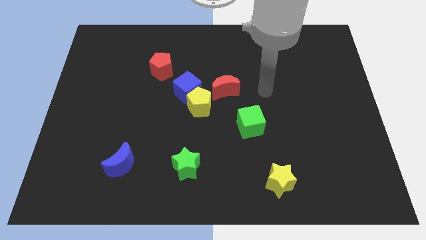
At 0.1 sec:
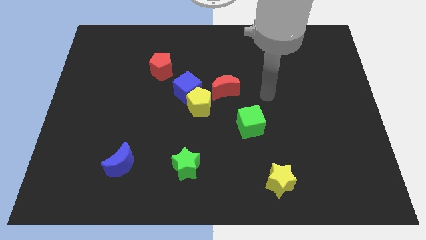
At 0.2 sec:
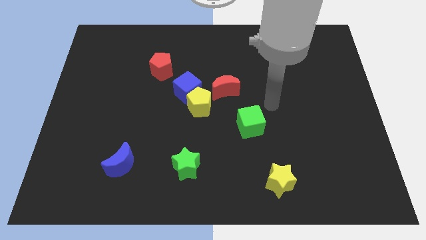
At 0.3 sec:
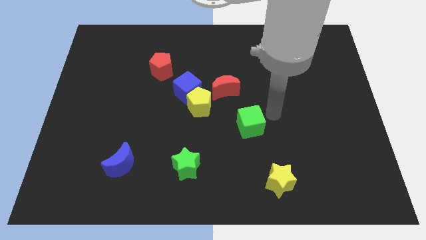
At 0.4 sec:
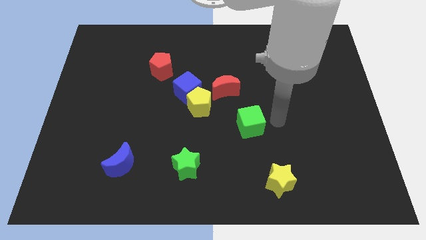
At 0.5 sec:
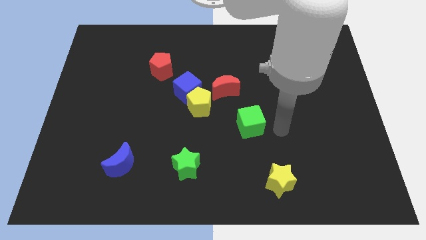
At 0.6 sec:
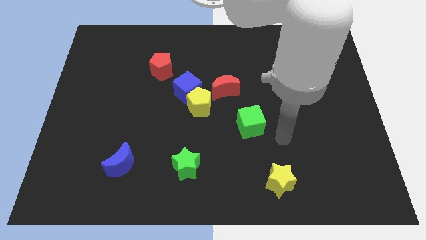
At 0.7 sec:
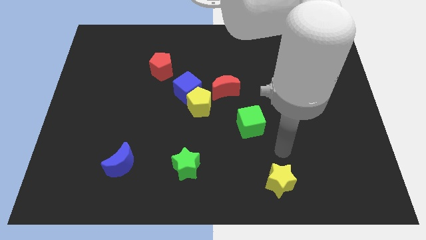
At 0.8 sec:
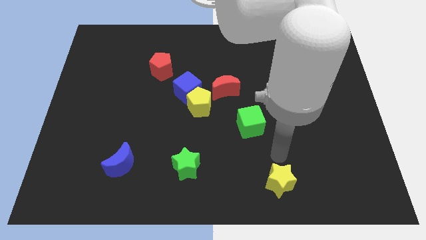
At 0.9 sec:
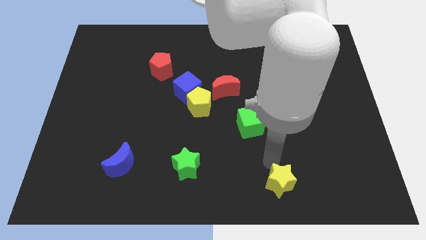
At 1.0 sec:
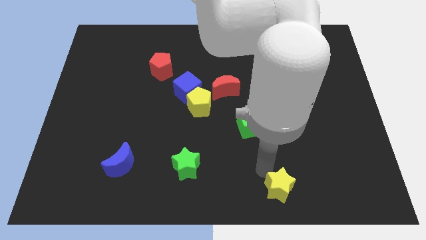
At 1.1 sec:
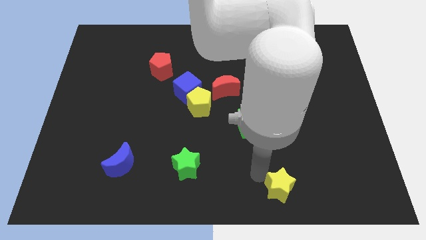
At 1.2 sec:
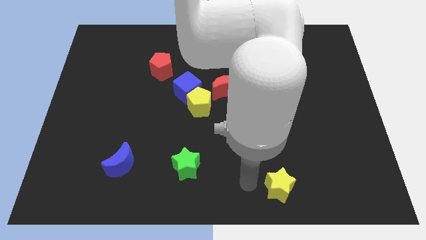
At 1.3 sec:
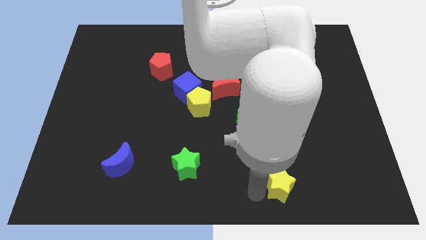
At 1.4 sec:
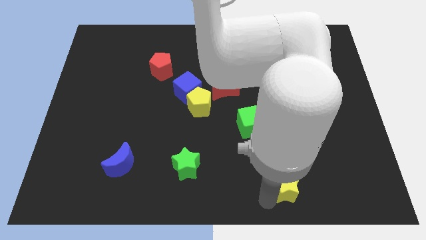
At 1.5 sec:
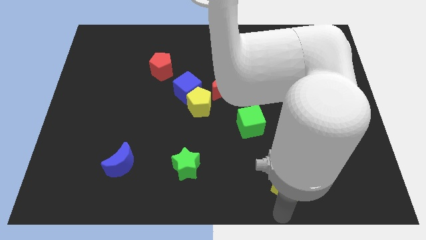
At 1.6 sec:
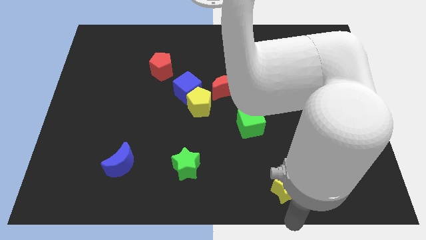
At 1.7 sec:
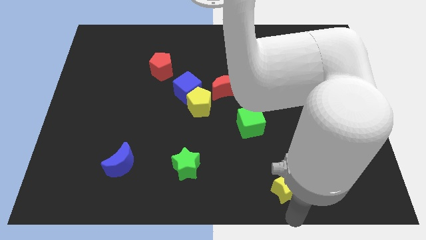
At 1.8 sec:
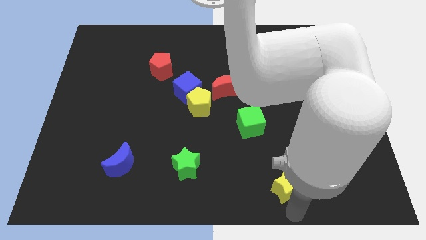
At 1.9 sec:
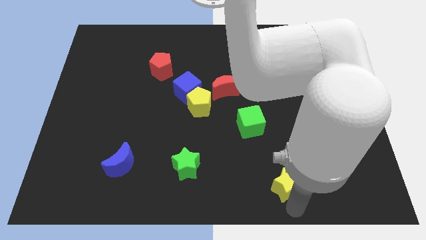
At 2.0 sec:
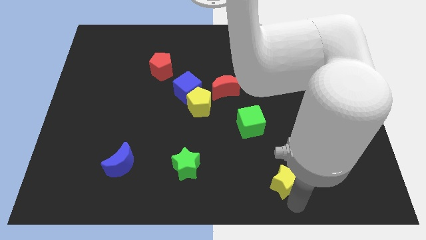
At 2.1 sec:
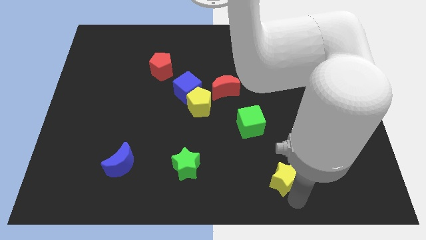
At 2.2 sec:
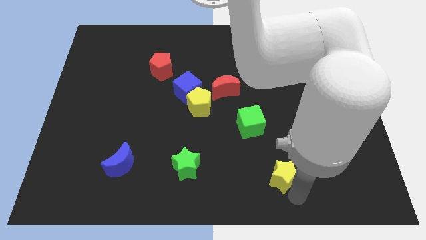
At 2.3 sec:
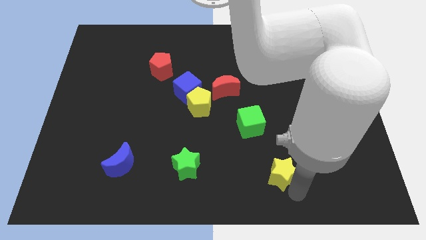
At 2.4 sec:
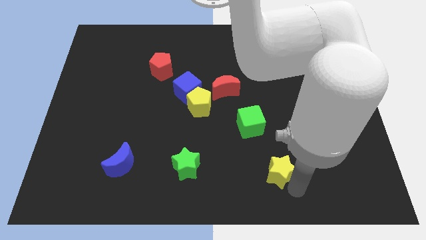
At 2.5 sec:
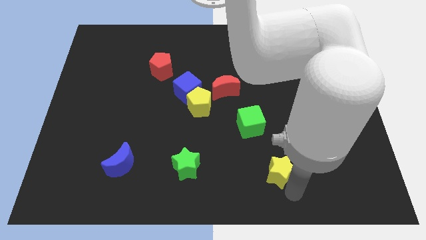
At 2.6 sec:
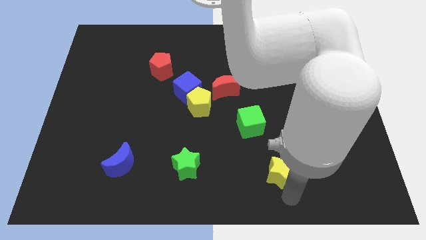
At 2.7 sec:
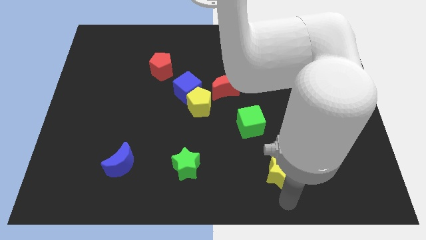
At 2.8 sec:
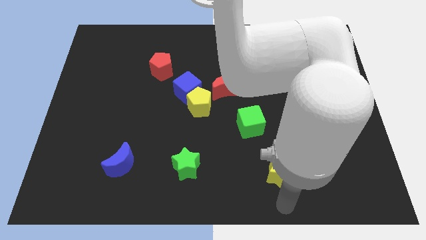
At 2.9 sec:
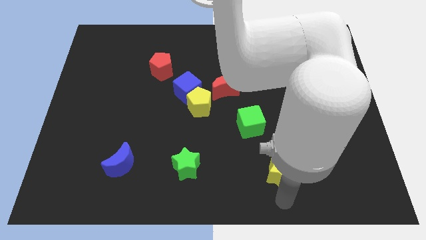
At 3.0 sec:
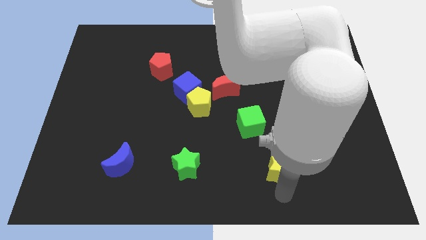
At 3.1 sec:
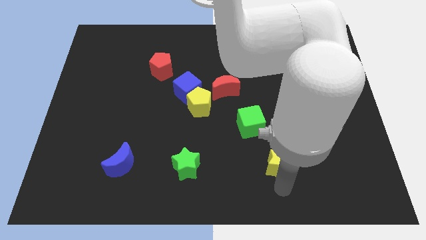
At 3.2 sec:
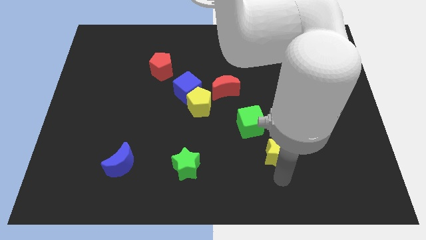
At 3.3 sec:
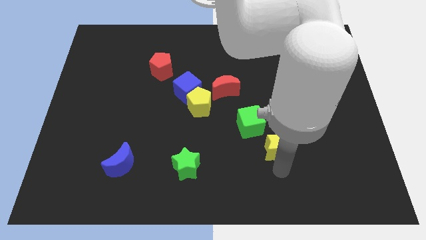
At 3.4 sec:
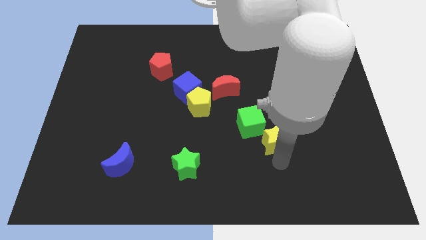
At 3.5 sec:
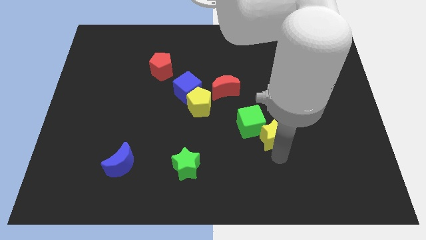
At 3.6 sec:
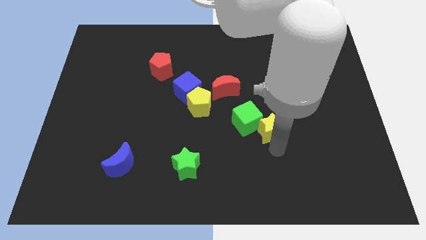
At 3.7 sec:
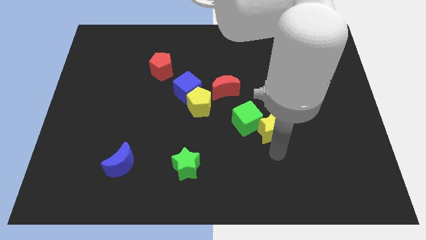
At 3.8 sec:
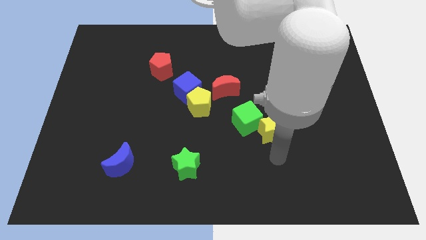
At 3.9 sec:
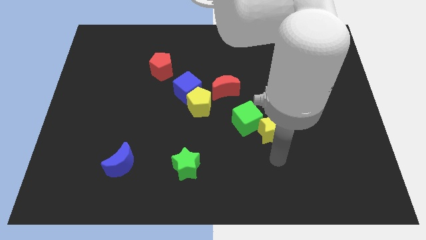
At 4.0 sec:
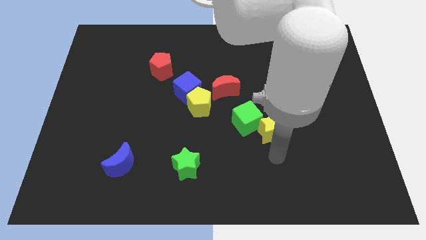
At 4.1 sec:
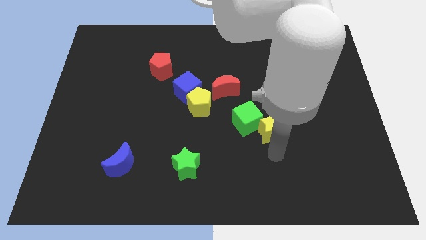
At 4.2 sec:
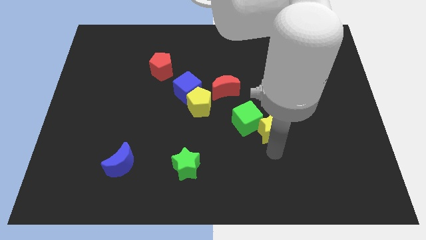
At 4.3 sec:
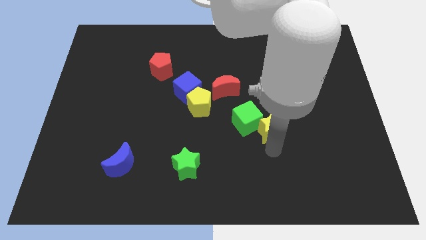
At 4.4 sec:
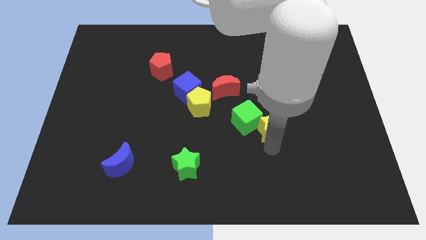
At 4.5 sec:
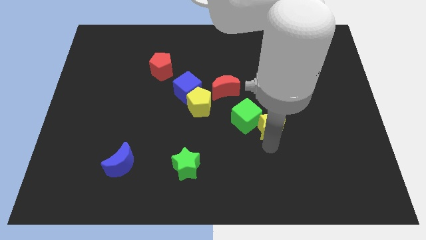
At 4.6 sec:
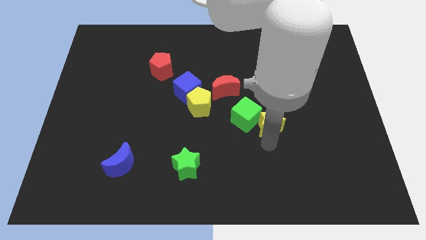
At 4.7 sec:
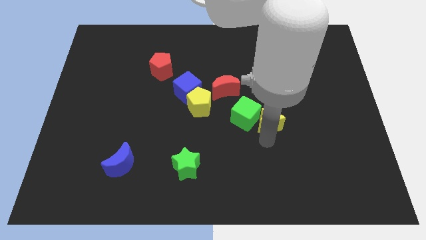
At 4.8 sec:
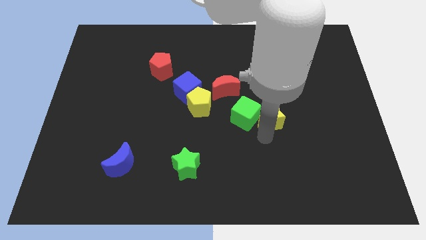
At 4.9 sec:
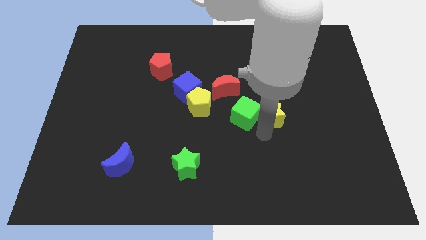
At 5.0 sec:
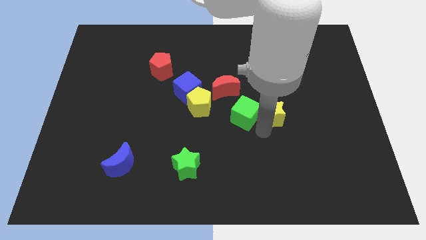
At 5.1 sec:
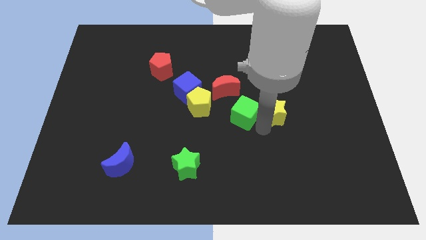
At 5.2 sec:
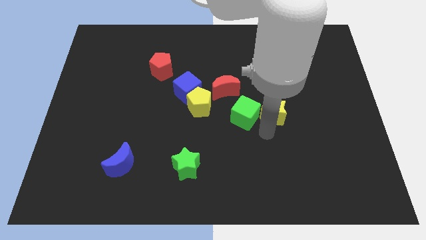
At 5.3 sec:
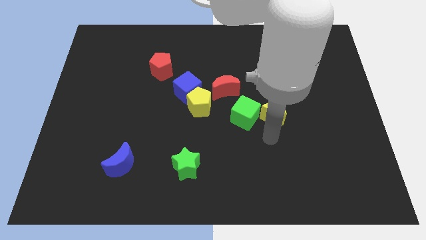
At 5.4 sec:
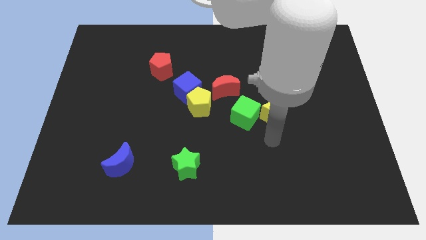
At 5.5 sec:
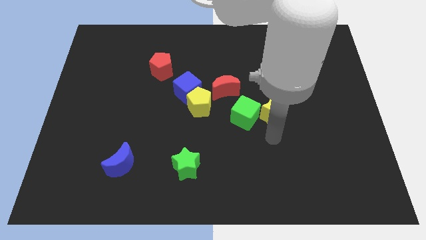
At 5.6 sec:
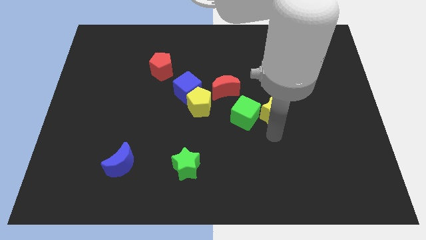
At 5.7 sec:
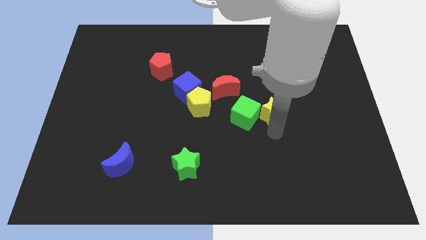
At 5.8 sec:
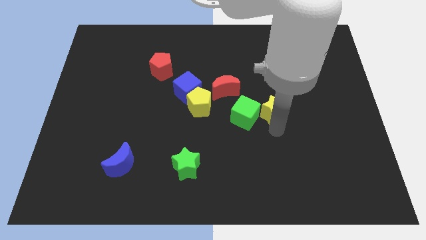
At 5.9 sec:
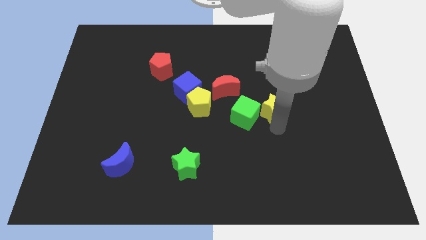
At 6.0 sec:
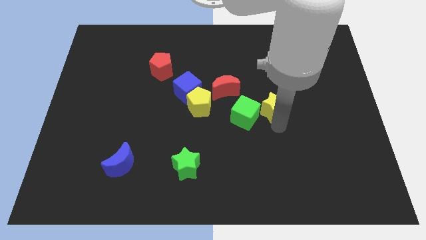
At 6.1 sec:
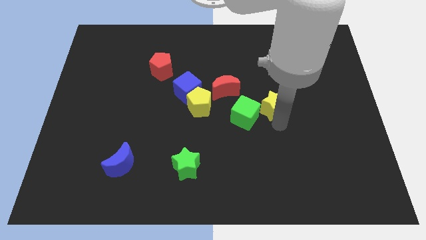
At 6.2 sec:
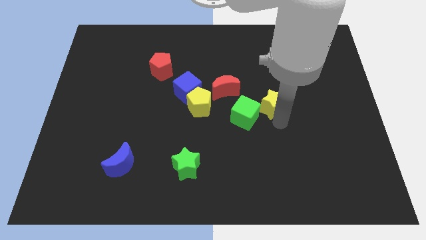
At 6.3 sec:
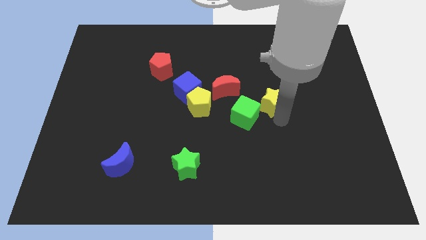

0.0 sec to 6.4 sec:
slide the yellow star upwards

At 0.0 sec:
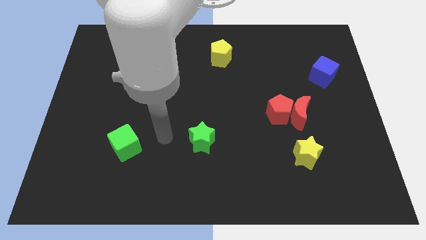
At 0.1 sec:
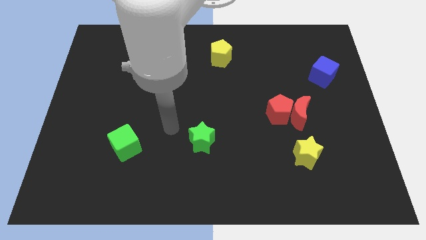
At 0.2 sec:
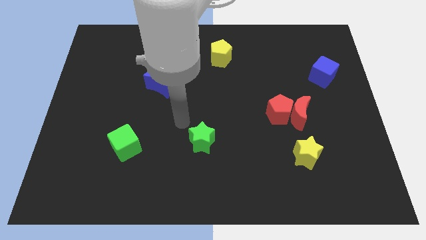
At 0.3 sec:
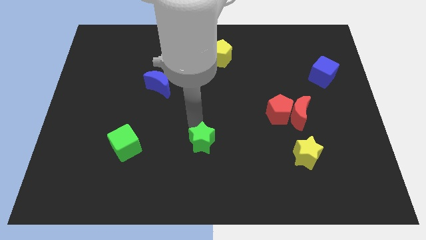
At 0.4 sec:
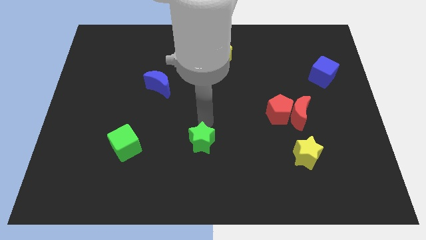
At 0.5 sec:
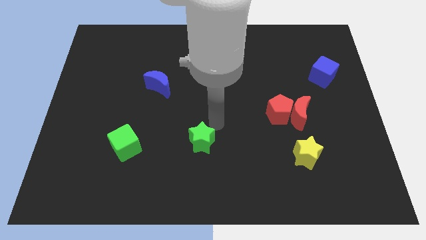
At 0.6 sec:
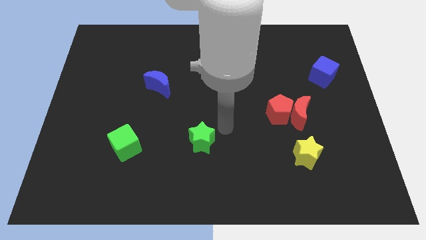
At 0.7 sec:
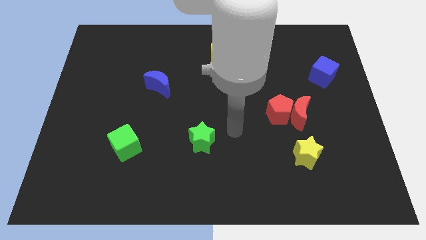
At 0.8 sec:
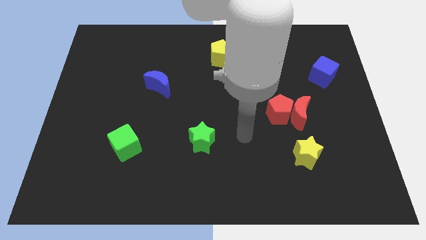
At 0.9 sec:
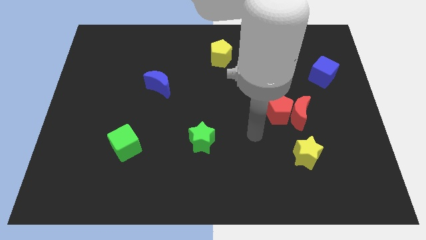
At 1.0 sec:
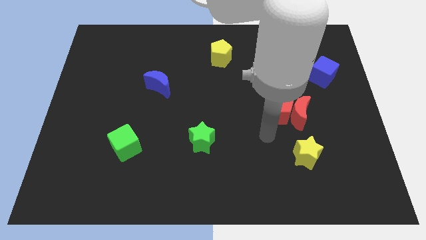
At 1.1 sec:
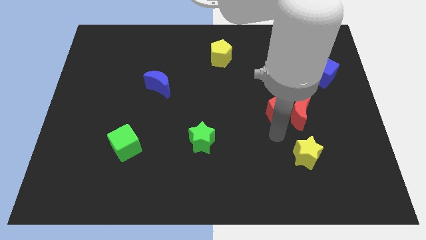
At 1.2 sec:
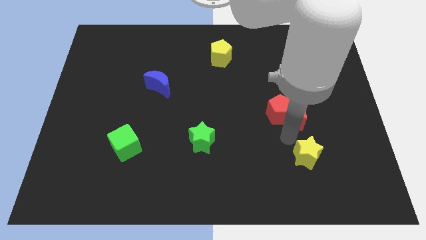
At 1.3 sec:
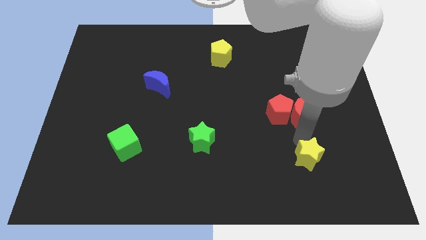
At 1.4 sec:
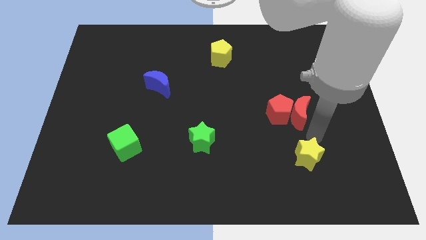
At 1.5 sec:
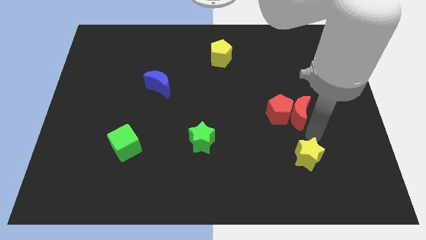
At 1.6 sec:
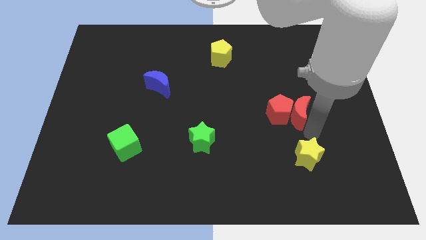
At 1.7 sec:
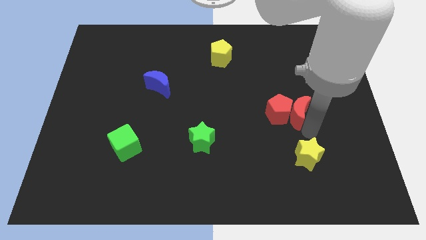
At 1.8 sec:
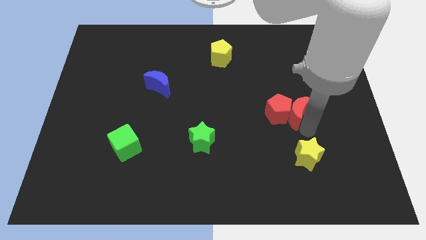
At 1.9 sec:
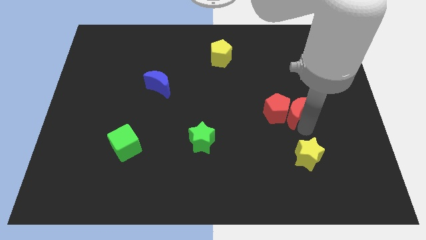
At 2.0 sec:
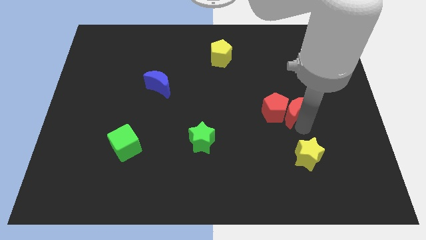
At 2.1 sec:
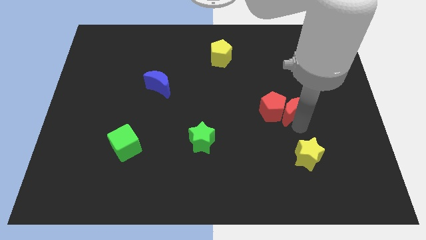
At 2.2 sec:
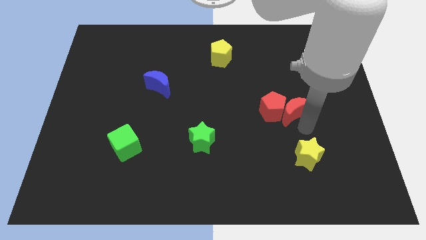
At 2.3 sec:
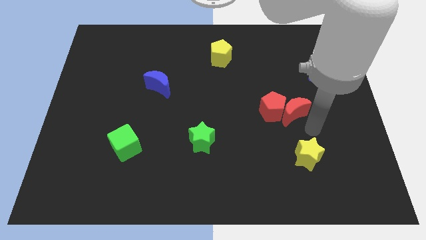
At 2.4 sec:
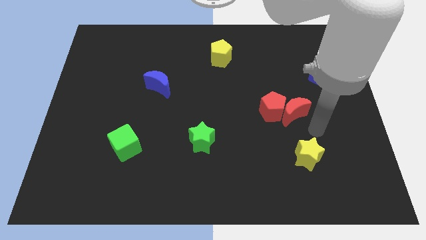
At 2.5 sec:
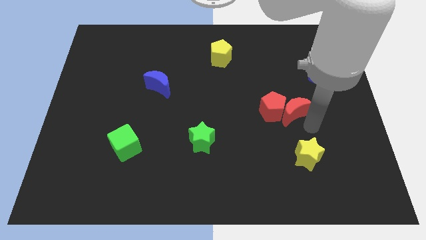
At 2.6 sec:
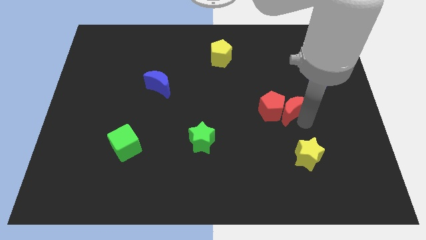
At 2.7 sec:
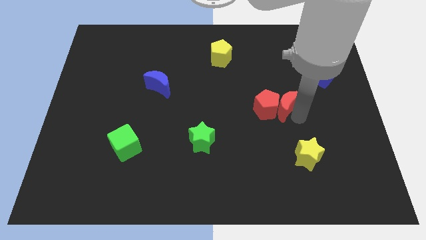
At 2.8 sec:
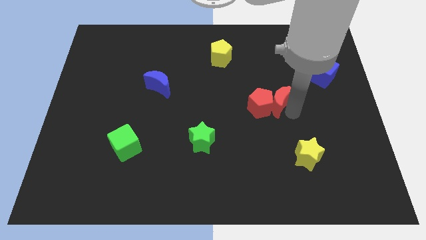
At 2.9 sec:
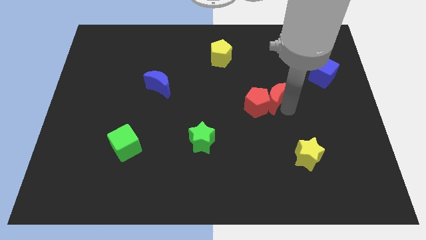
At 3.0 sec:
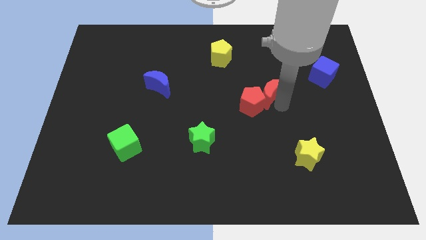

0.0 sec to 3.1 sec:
slightly move the red moon up and then to the left
